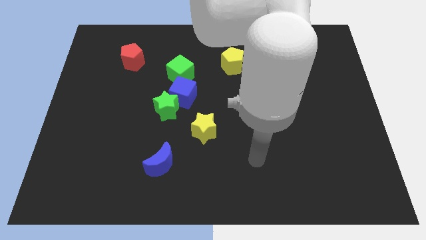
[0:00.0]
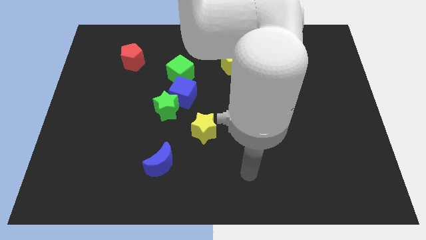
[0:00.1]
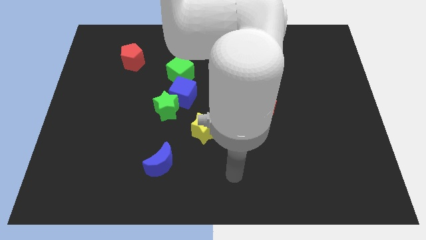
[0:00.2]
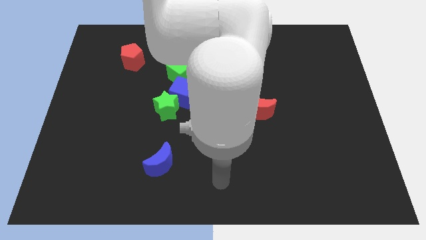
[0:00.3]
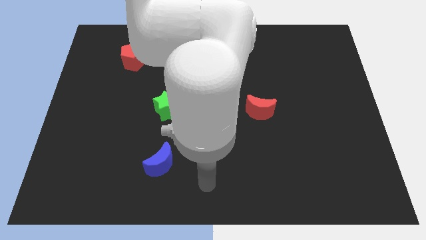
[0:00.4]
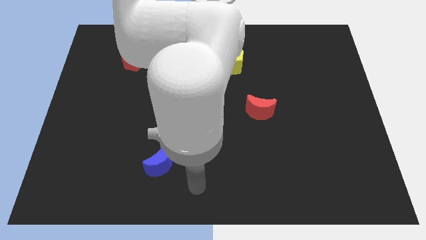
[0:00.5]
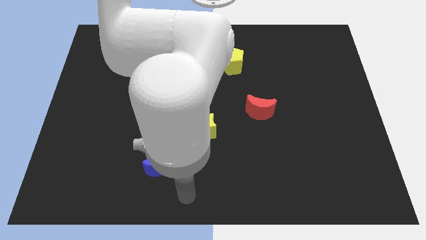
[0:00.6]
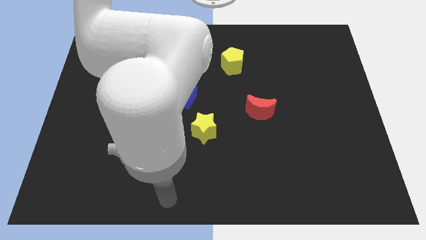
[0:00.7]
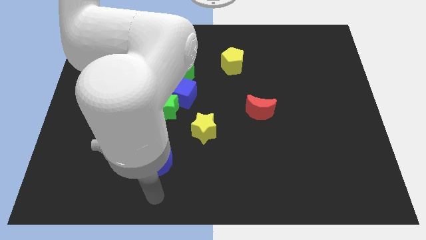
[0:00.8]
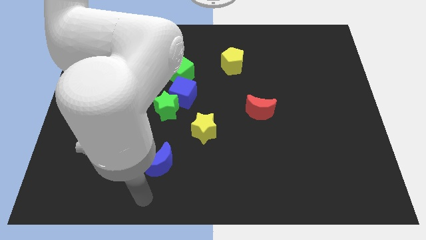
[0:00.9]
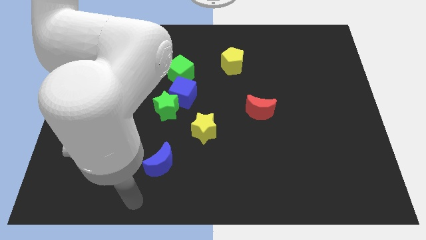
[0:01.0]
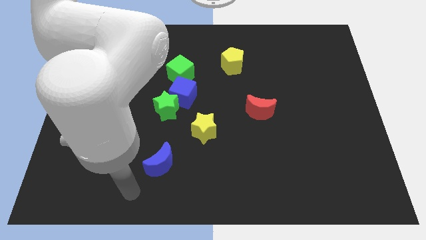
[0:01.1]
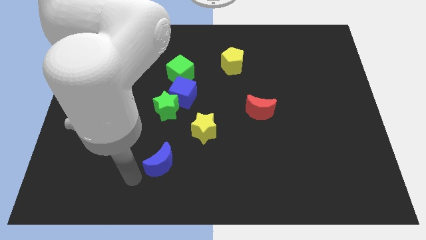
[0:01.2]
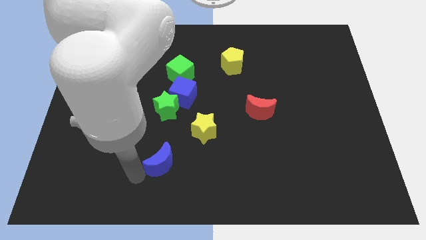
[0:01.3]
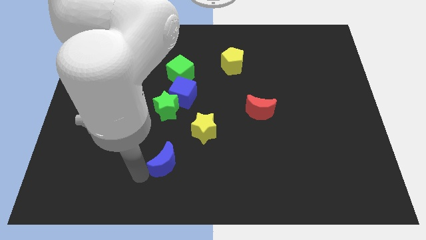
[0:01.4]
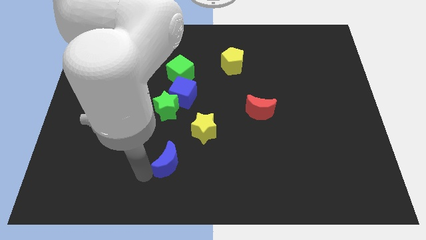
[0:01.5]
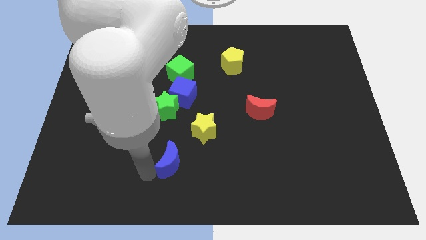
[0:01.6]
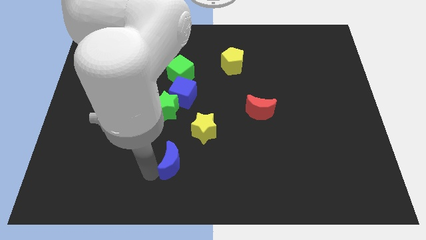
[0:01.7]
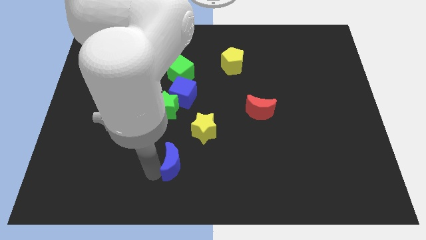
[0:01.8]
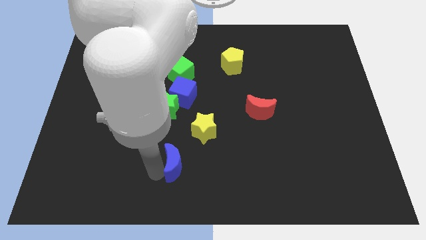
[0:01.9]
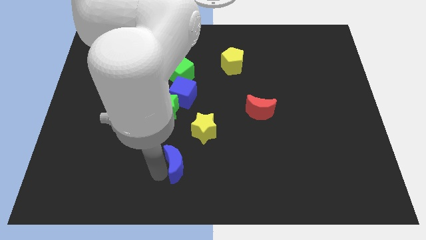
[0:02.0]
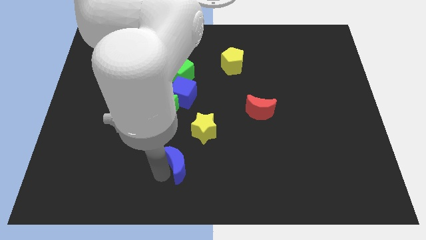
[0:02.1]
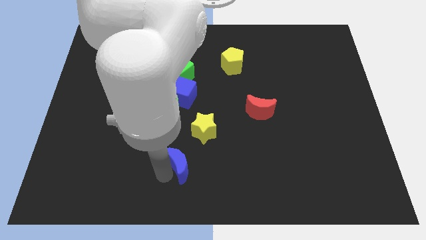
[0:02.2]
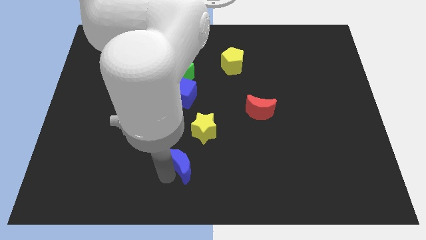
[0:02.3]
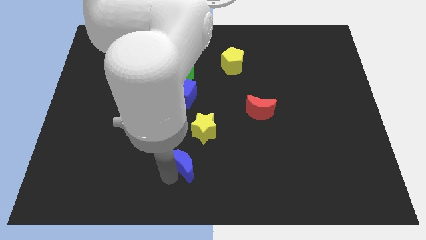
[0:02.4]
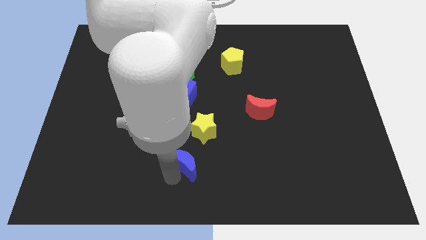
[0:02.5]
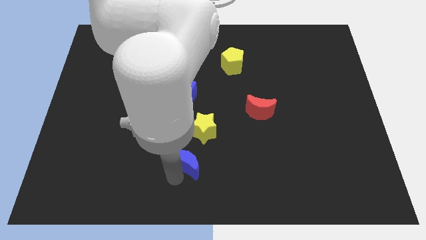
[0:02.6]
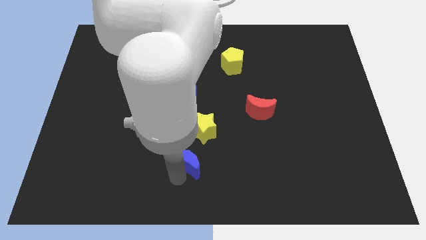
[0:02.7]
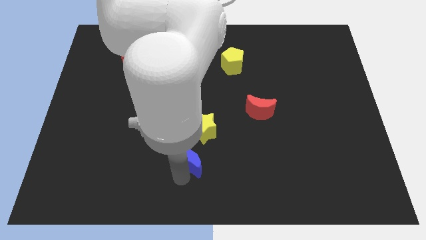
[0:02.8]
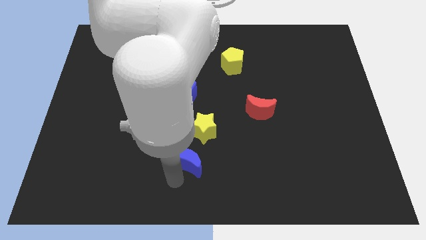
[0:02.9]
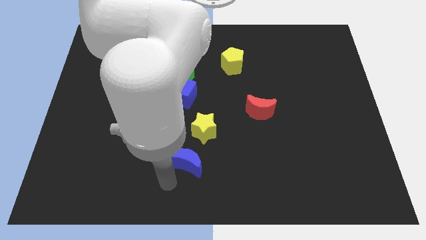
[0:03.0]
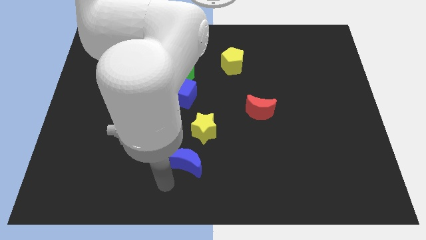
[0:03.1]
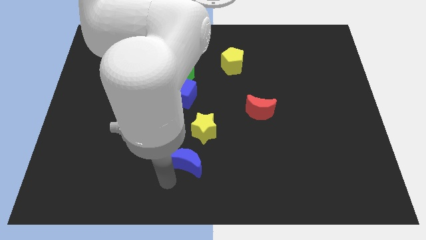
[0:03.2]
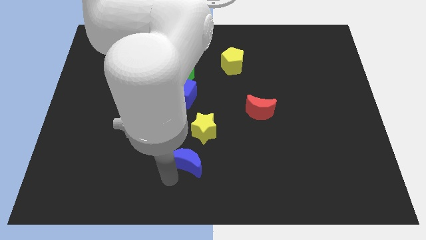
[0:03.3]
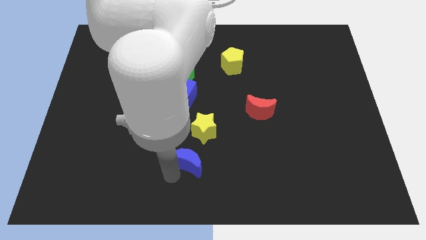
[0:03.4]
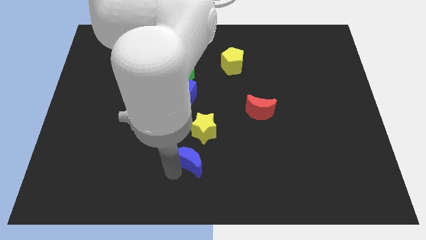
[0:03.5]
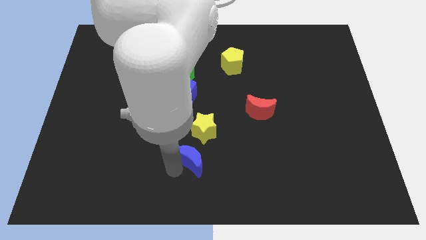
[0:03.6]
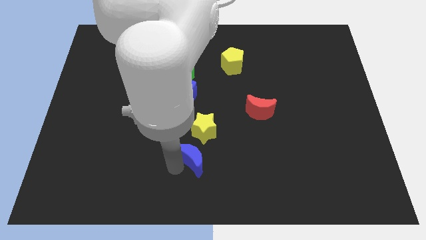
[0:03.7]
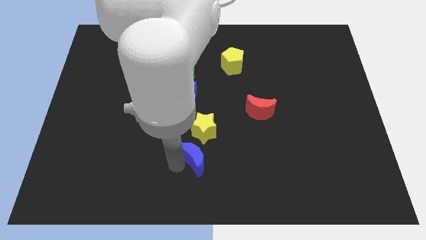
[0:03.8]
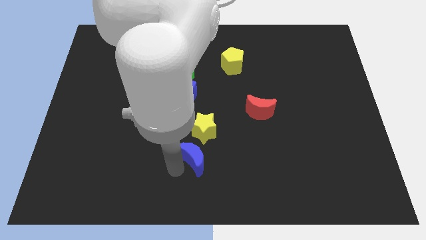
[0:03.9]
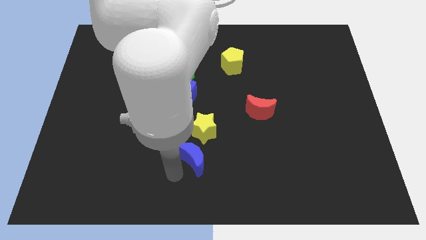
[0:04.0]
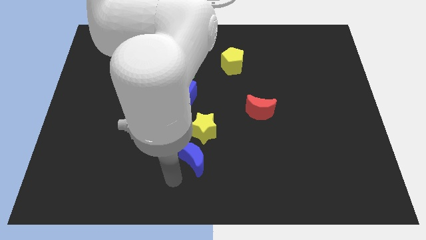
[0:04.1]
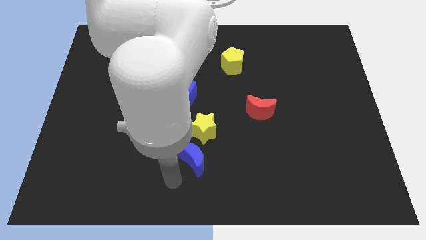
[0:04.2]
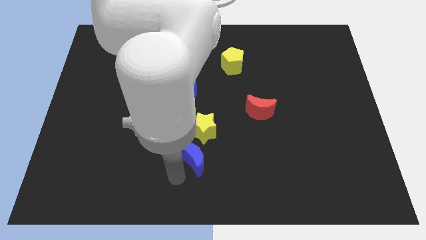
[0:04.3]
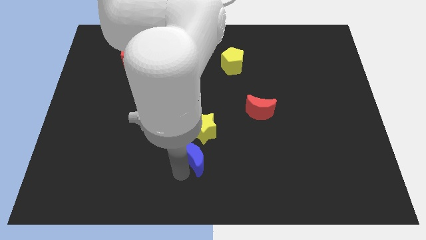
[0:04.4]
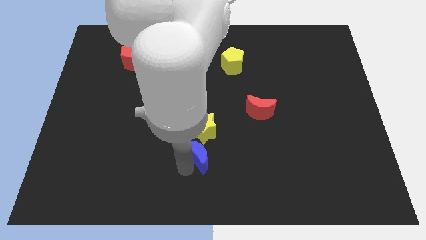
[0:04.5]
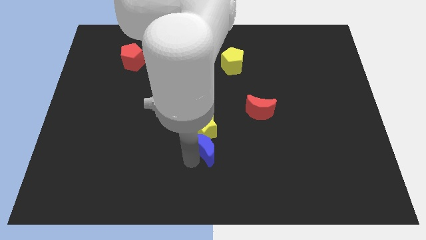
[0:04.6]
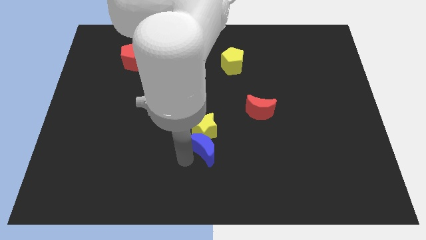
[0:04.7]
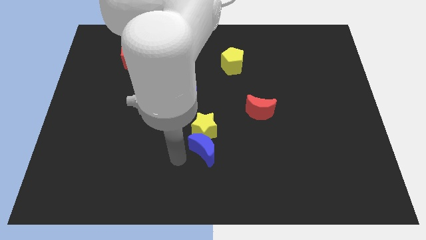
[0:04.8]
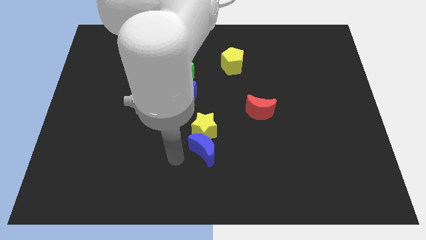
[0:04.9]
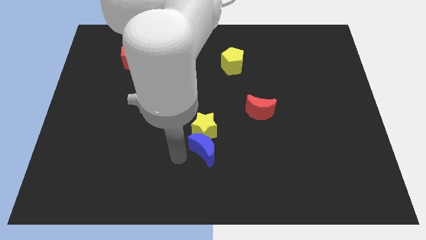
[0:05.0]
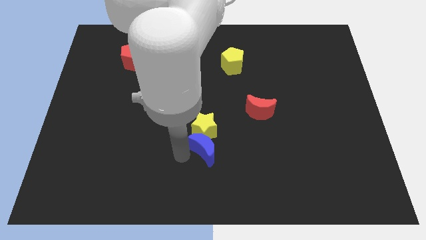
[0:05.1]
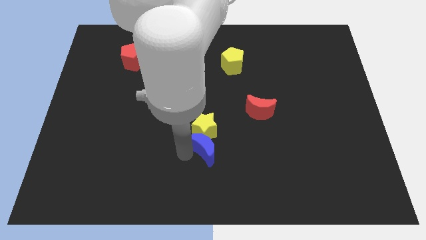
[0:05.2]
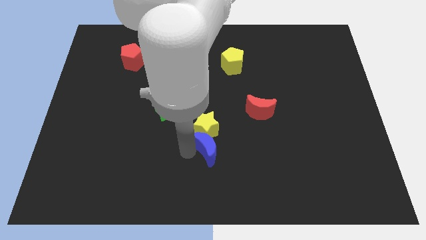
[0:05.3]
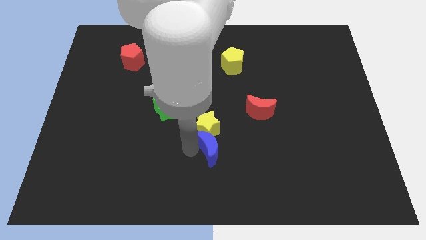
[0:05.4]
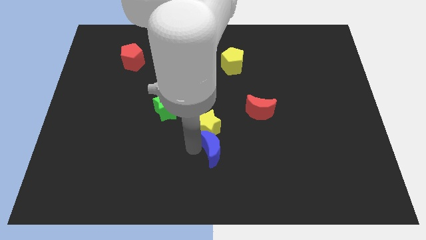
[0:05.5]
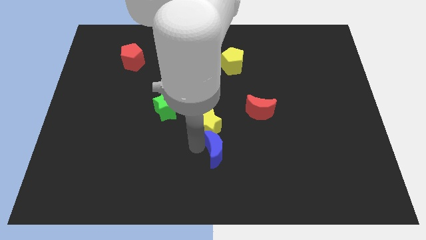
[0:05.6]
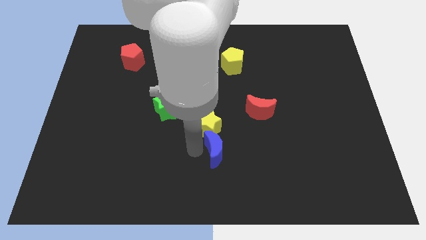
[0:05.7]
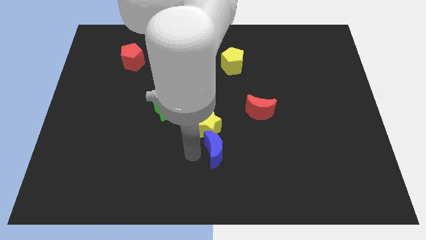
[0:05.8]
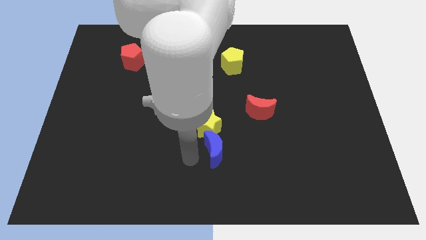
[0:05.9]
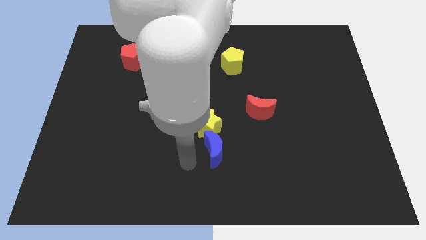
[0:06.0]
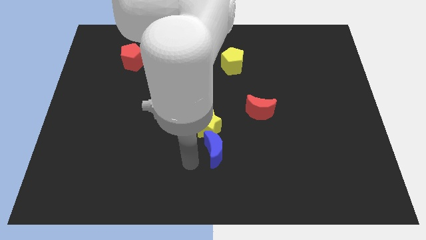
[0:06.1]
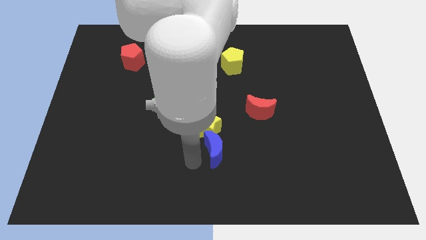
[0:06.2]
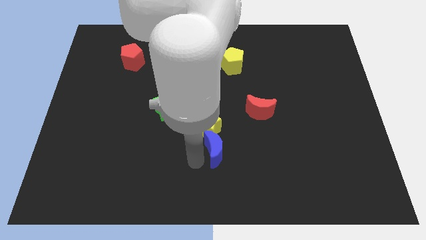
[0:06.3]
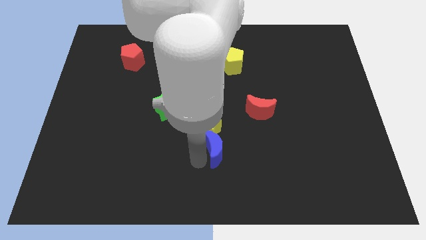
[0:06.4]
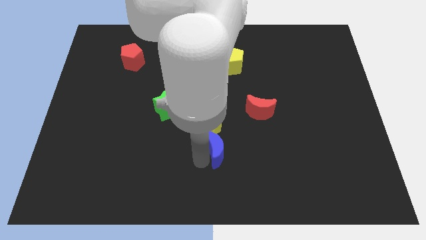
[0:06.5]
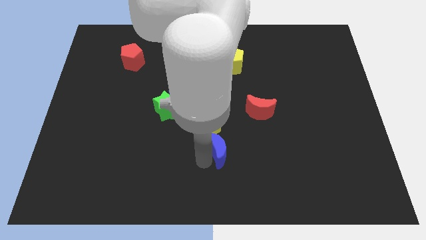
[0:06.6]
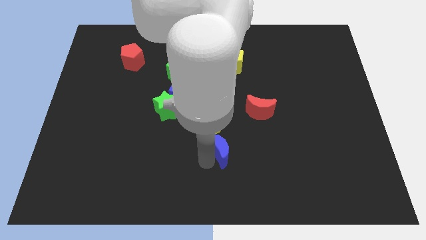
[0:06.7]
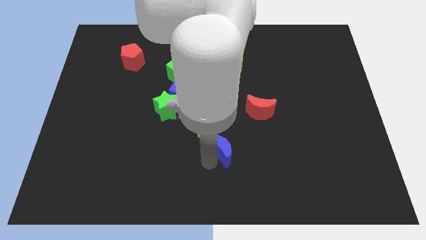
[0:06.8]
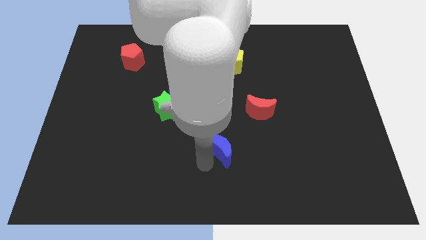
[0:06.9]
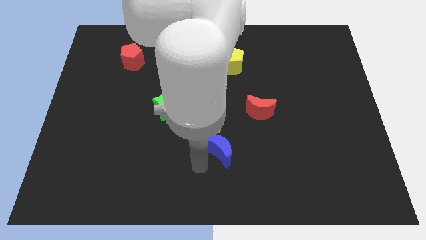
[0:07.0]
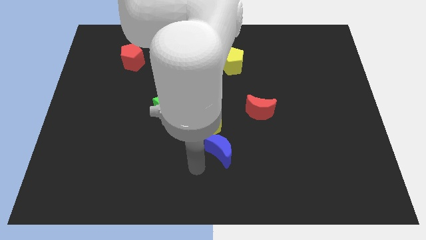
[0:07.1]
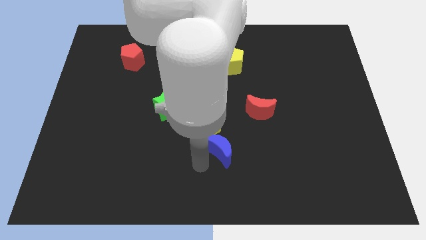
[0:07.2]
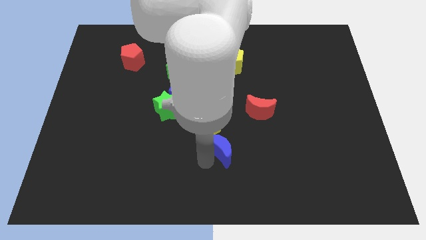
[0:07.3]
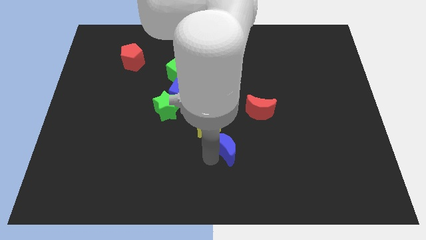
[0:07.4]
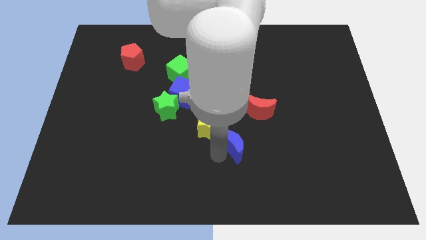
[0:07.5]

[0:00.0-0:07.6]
put the blue moon to the bottom left of the red moon

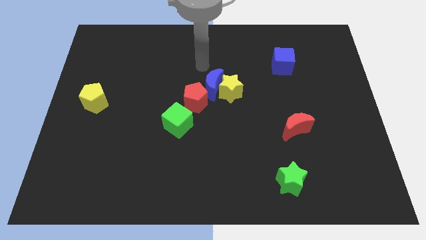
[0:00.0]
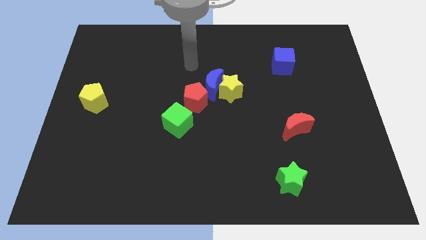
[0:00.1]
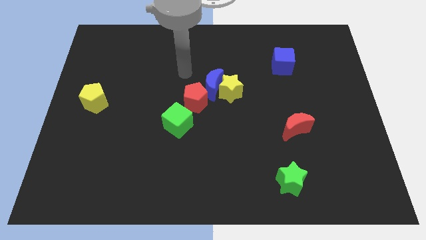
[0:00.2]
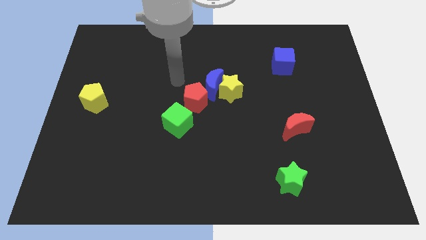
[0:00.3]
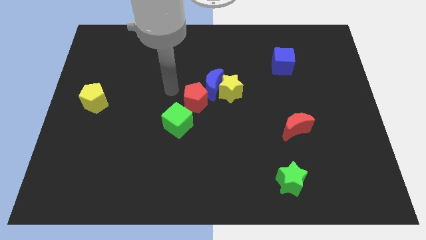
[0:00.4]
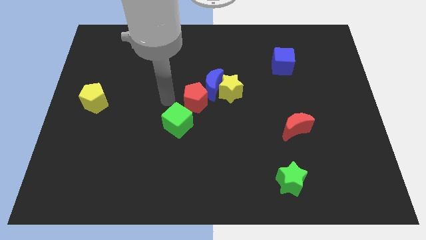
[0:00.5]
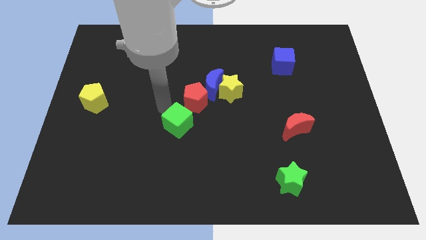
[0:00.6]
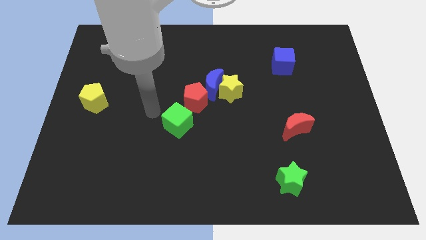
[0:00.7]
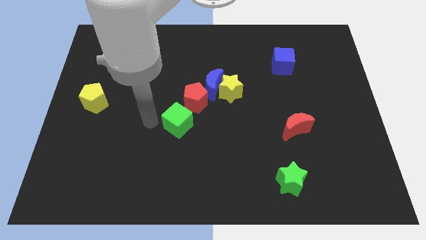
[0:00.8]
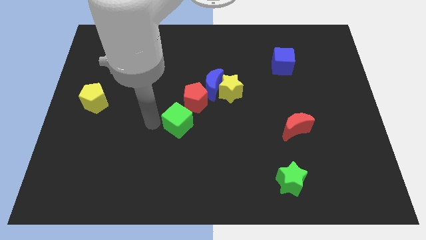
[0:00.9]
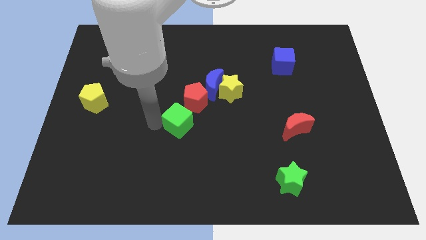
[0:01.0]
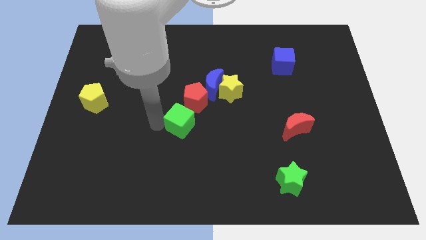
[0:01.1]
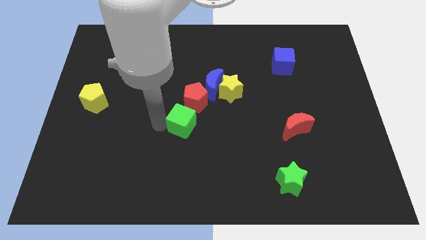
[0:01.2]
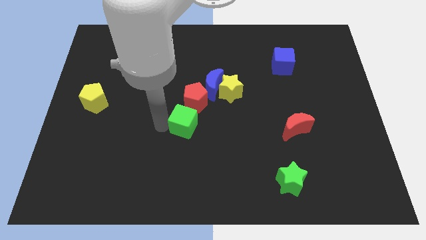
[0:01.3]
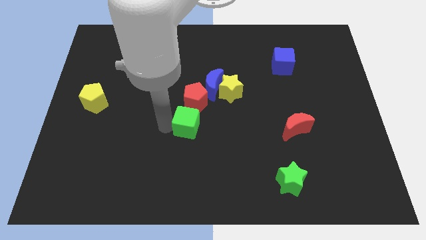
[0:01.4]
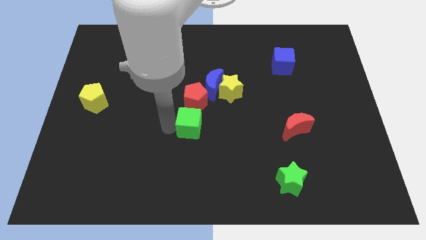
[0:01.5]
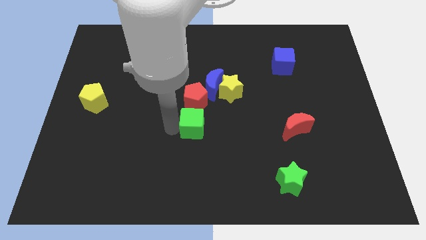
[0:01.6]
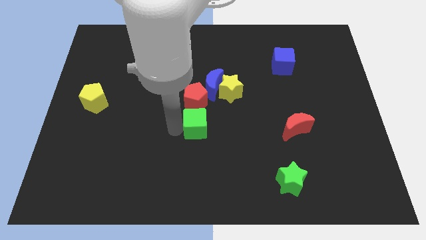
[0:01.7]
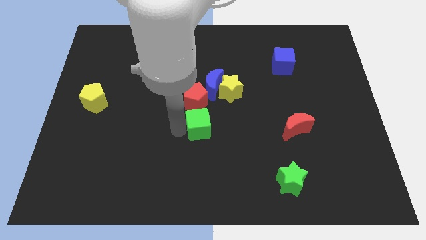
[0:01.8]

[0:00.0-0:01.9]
slide the green cube to the bottom right of the red pentagon
